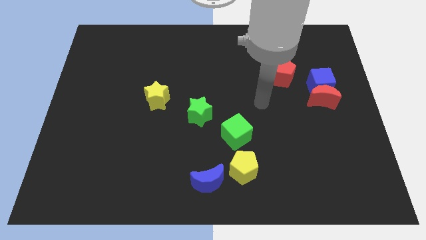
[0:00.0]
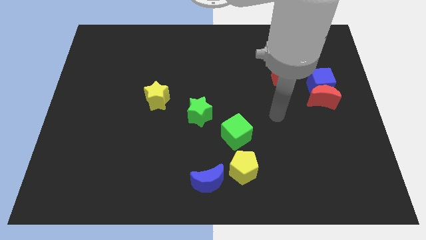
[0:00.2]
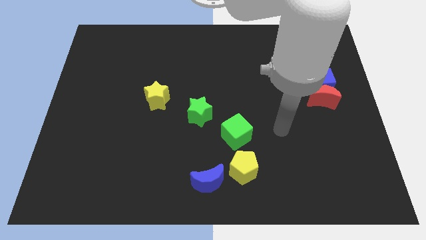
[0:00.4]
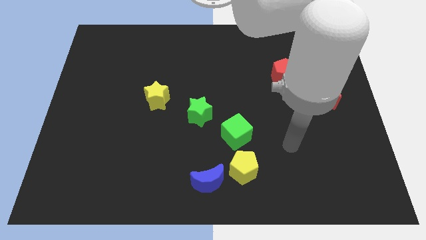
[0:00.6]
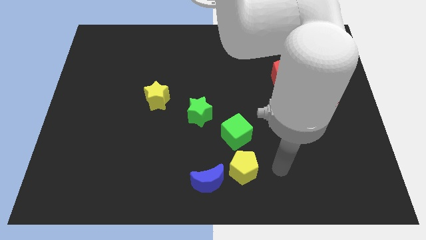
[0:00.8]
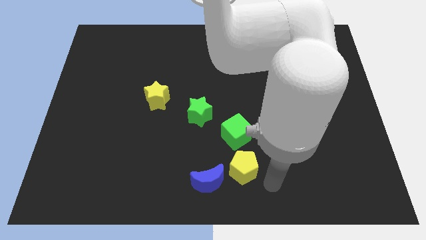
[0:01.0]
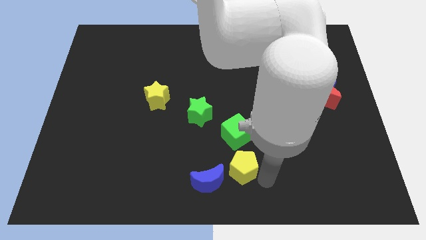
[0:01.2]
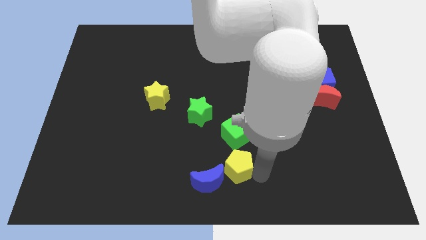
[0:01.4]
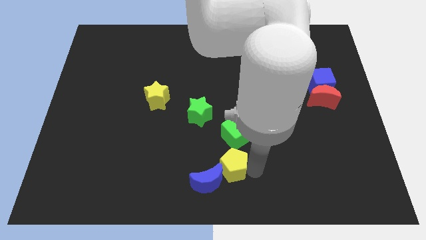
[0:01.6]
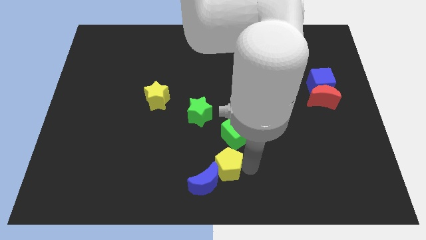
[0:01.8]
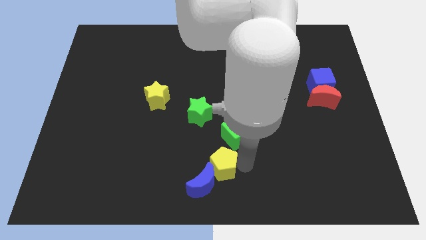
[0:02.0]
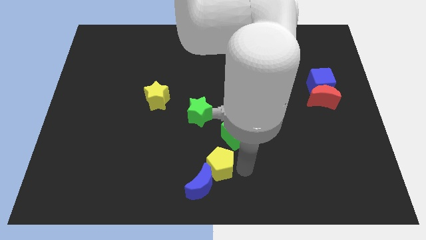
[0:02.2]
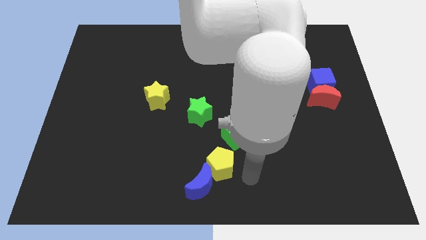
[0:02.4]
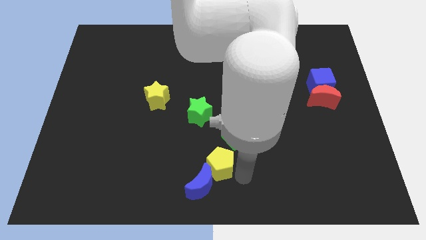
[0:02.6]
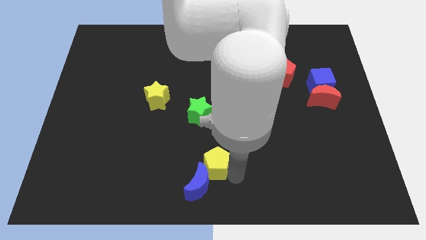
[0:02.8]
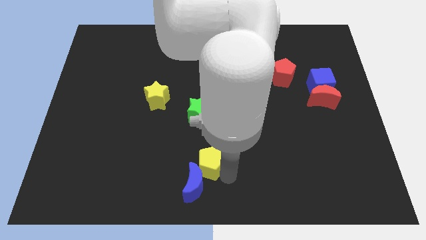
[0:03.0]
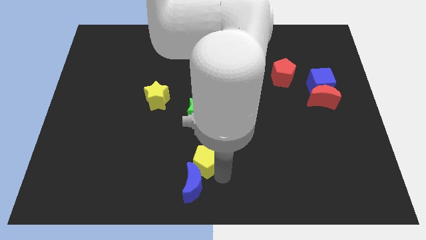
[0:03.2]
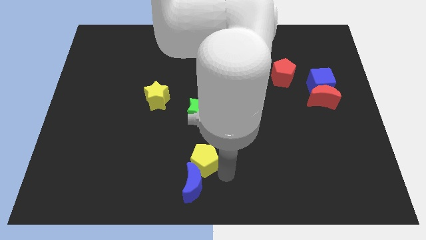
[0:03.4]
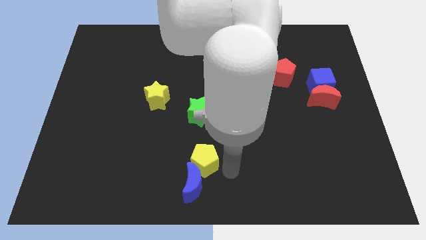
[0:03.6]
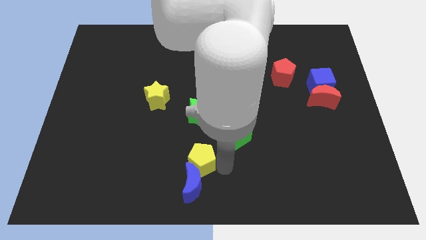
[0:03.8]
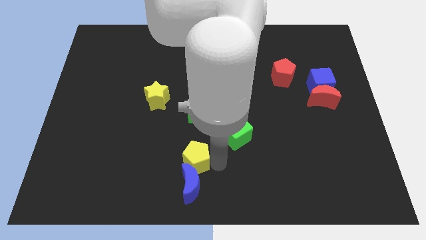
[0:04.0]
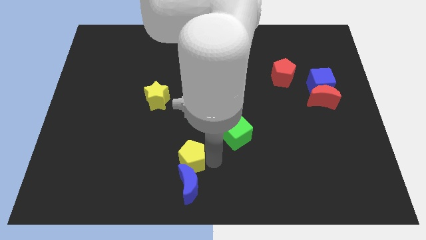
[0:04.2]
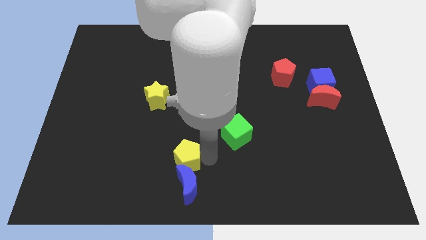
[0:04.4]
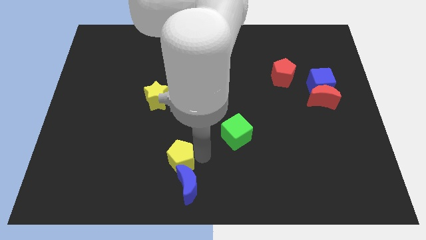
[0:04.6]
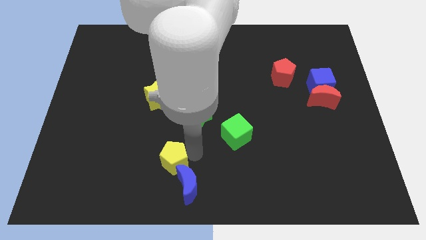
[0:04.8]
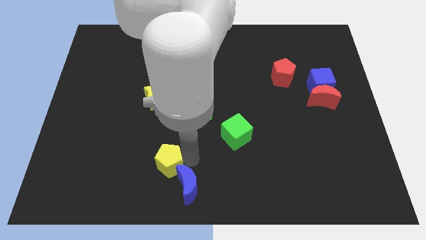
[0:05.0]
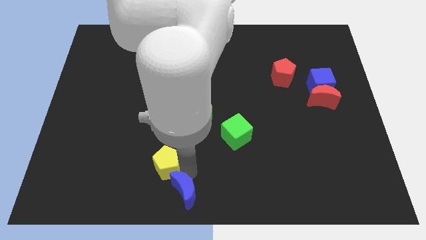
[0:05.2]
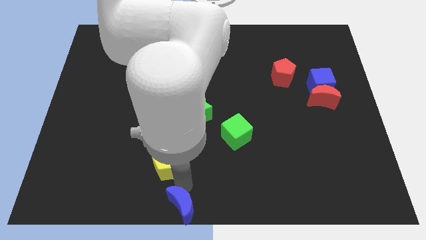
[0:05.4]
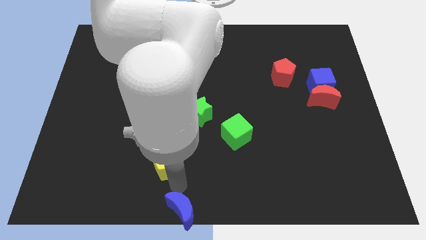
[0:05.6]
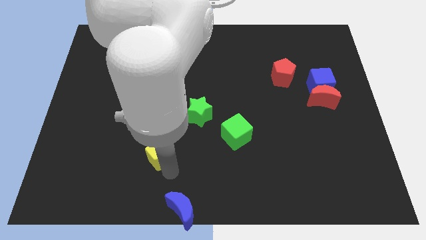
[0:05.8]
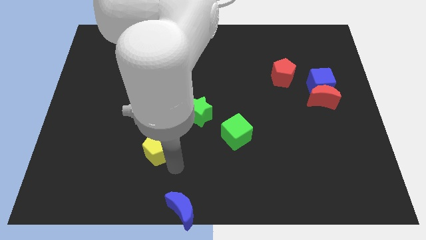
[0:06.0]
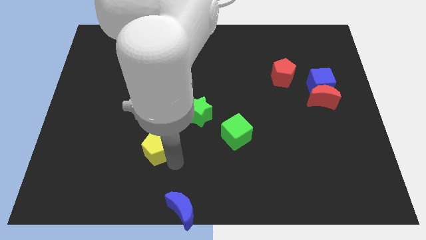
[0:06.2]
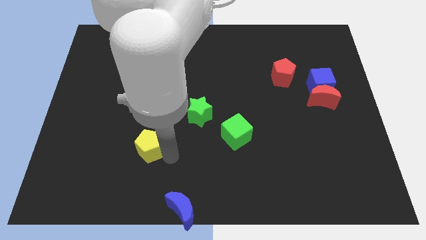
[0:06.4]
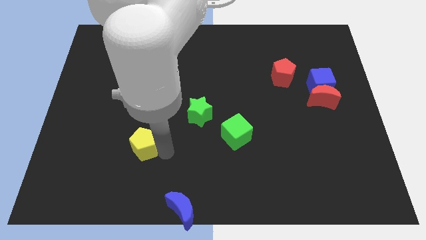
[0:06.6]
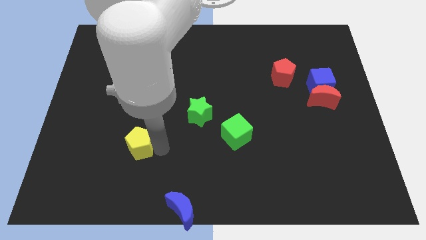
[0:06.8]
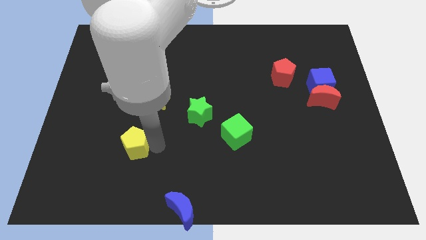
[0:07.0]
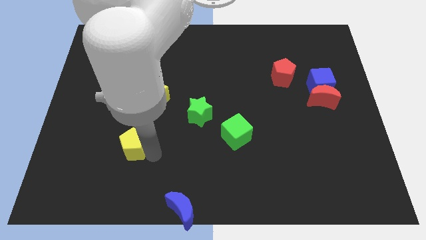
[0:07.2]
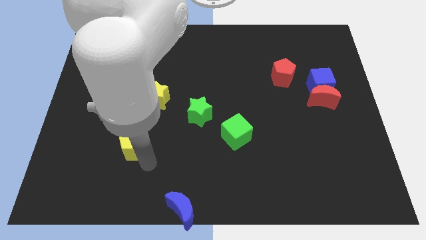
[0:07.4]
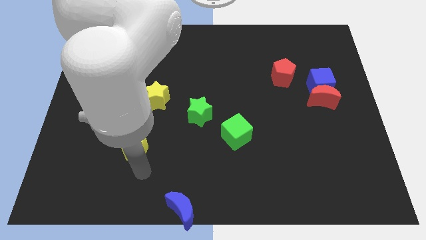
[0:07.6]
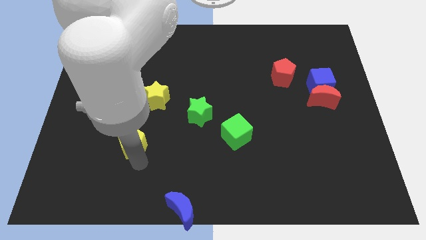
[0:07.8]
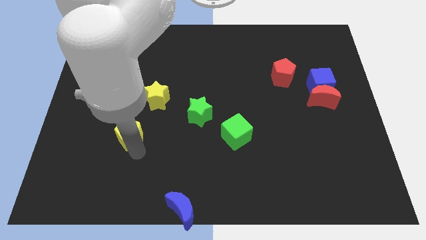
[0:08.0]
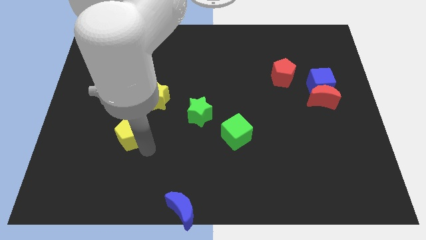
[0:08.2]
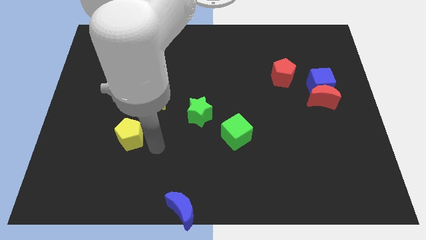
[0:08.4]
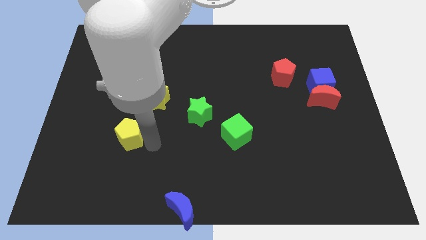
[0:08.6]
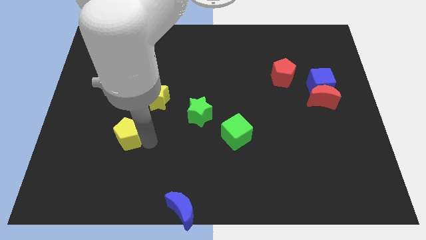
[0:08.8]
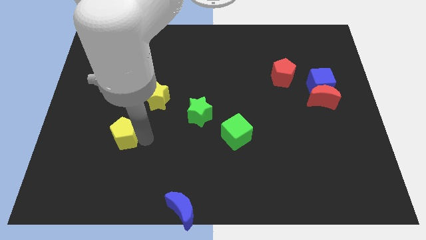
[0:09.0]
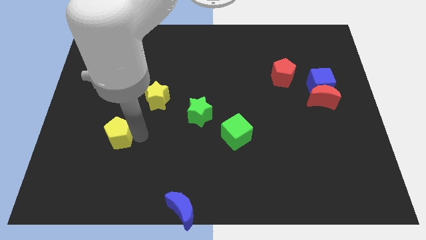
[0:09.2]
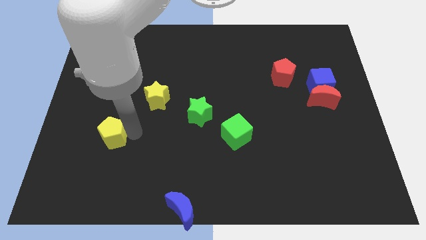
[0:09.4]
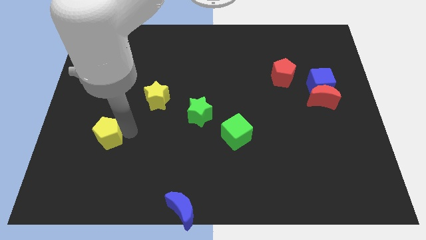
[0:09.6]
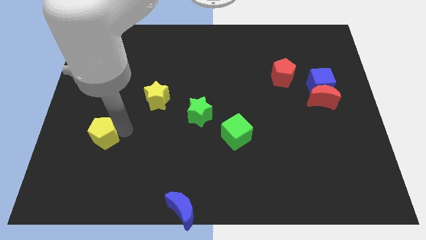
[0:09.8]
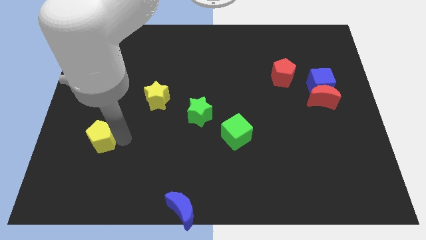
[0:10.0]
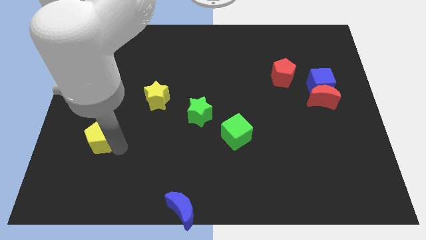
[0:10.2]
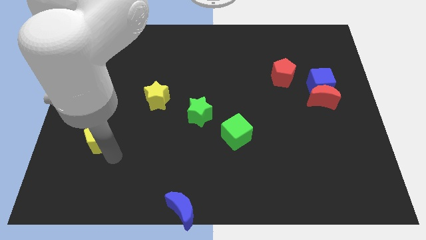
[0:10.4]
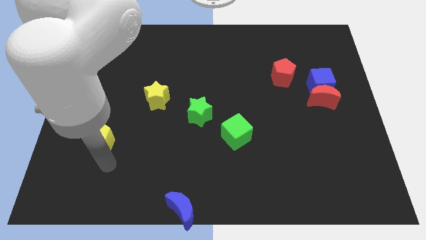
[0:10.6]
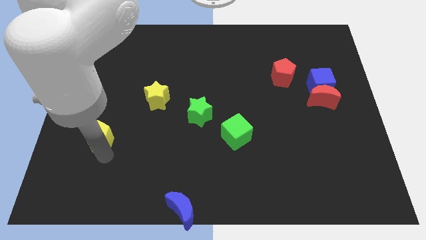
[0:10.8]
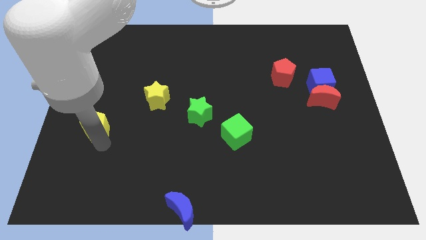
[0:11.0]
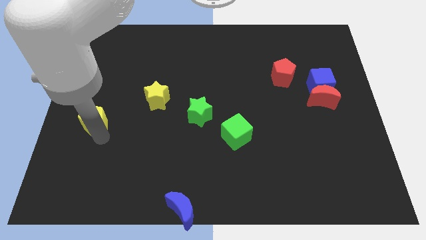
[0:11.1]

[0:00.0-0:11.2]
put the yellow pentagon to the left side

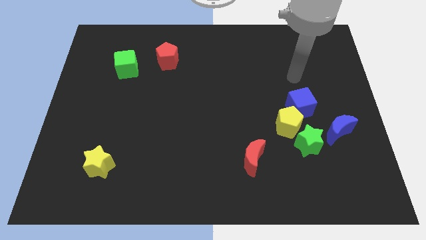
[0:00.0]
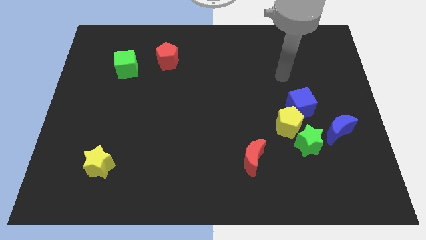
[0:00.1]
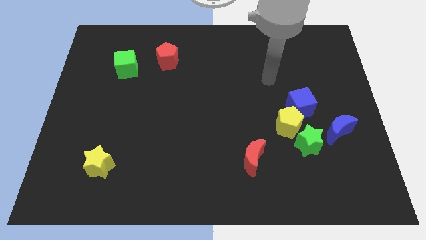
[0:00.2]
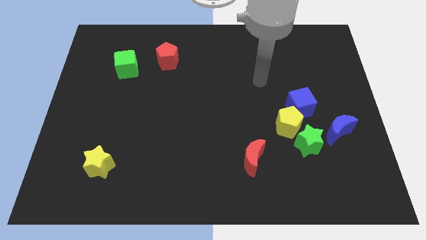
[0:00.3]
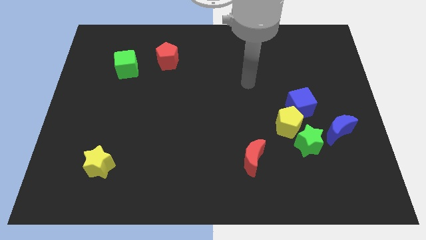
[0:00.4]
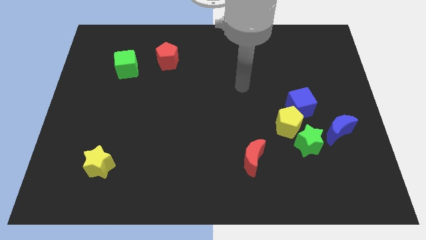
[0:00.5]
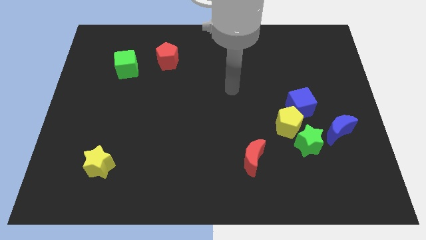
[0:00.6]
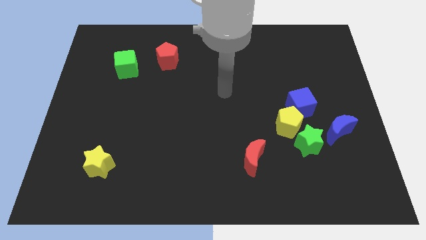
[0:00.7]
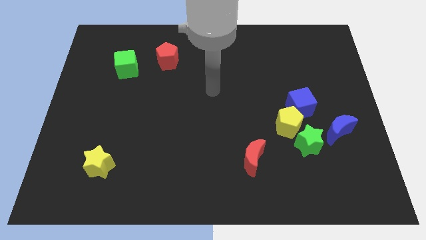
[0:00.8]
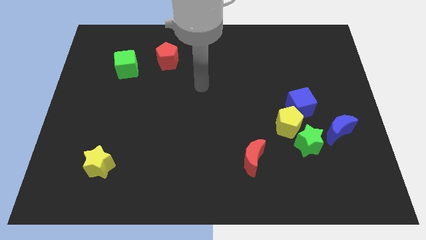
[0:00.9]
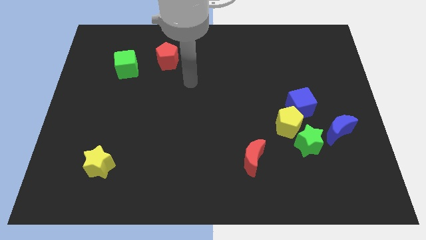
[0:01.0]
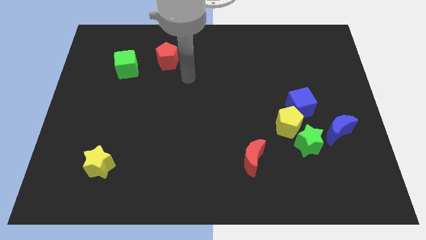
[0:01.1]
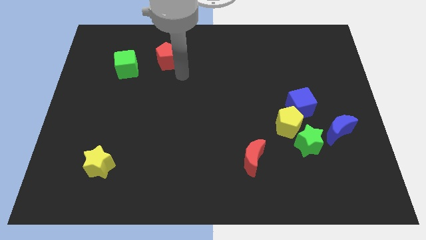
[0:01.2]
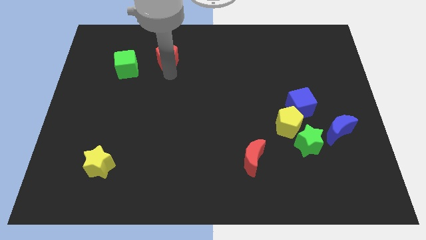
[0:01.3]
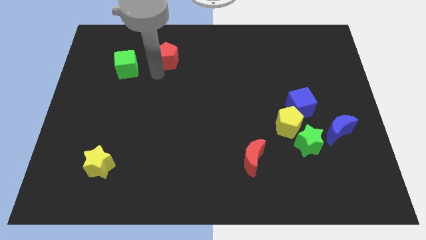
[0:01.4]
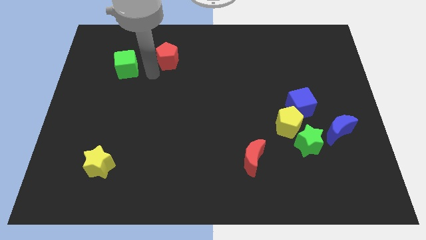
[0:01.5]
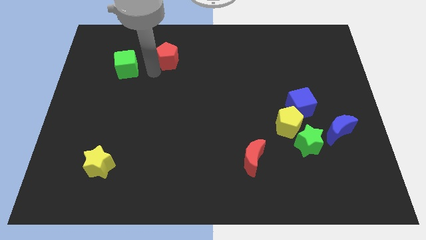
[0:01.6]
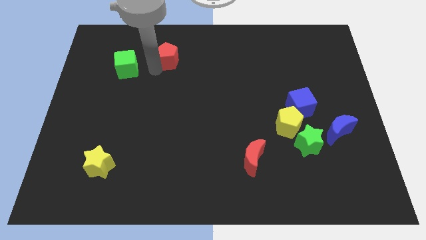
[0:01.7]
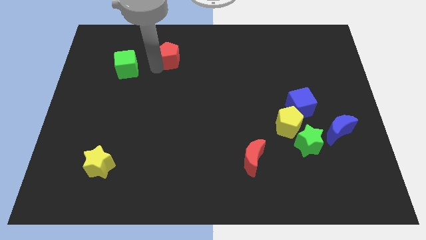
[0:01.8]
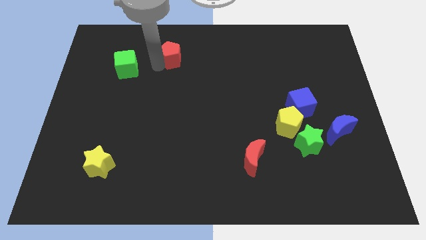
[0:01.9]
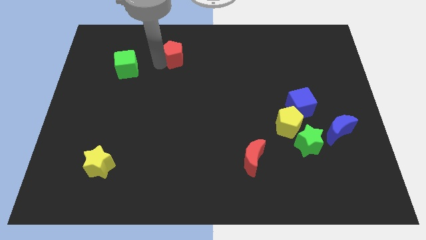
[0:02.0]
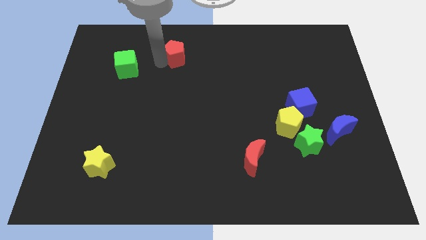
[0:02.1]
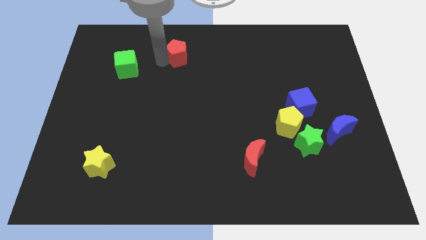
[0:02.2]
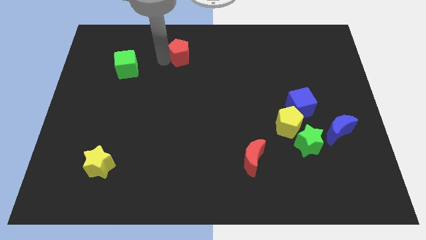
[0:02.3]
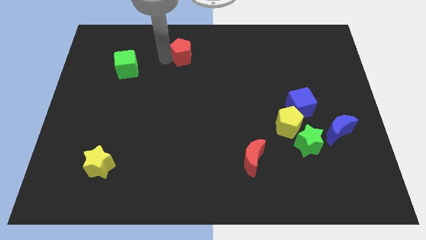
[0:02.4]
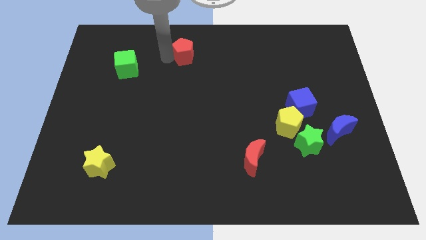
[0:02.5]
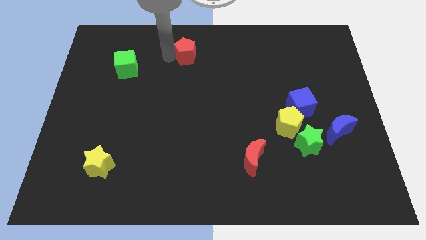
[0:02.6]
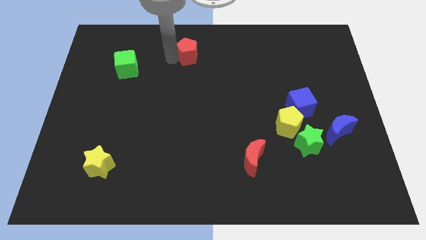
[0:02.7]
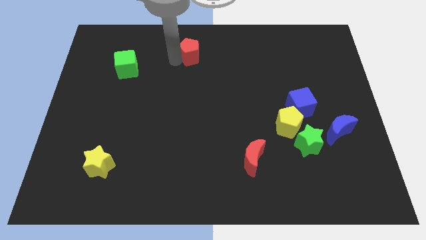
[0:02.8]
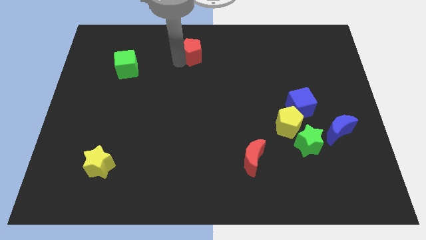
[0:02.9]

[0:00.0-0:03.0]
move the red pentagon to the top side
